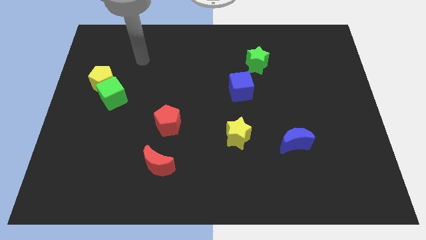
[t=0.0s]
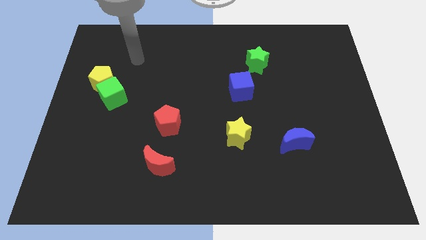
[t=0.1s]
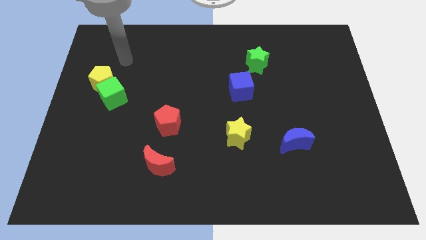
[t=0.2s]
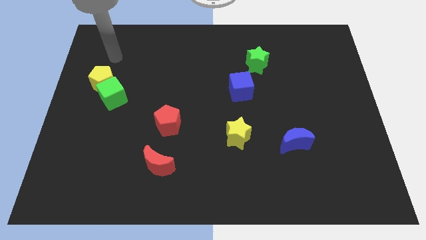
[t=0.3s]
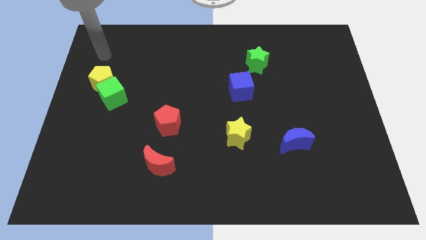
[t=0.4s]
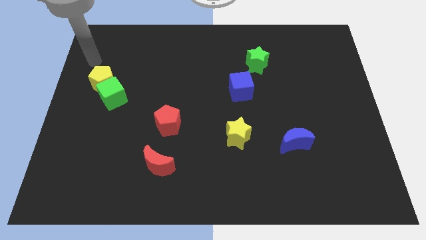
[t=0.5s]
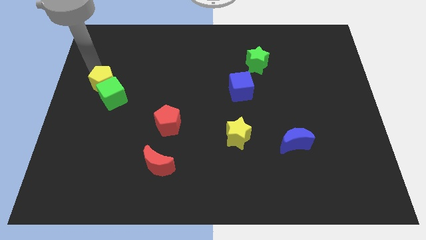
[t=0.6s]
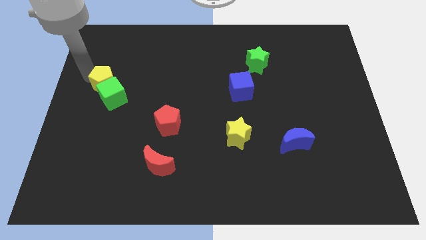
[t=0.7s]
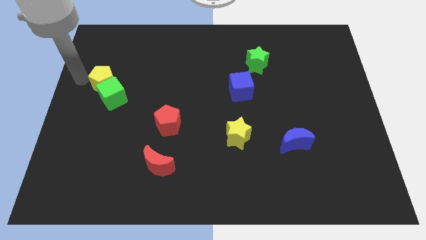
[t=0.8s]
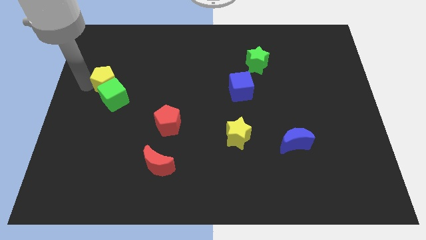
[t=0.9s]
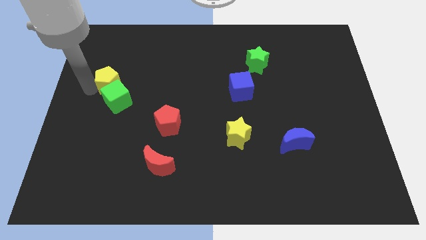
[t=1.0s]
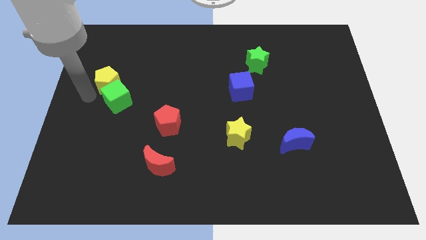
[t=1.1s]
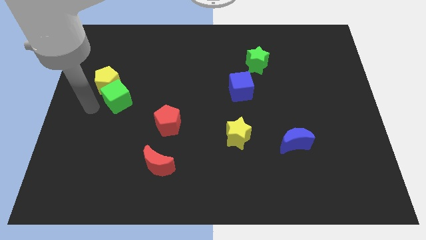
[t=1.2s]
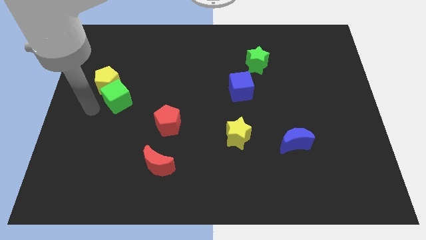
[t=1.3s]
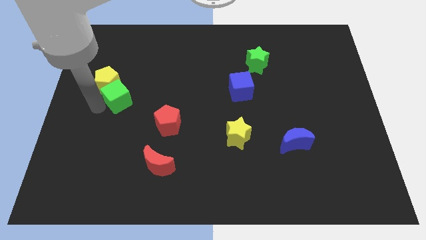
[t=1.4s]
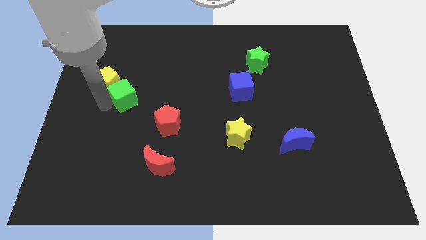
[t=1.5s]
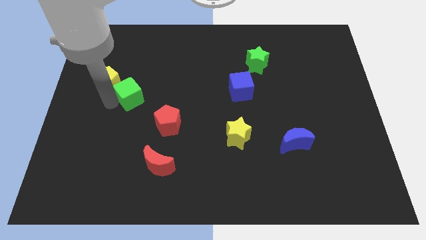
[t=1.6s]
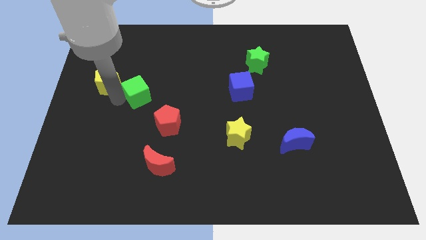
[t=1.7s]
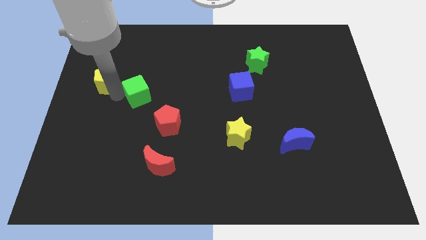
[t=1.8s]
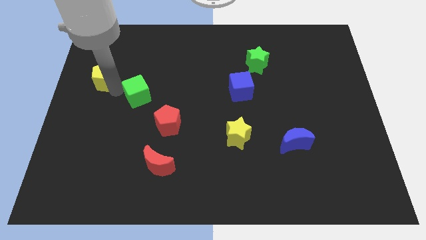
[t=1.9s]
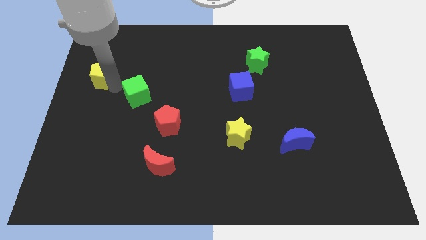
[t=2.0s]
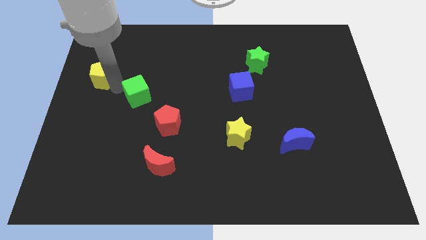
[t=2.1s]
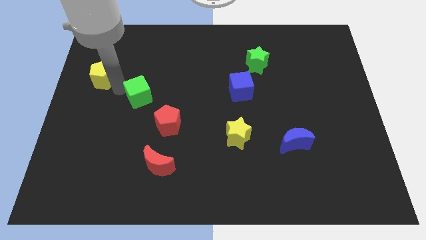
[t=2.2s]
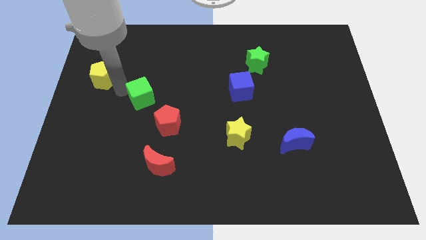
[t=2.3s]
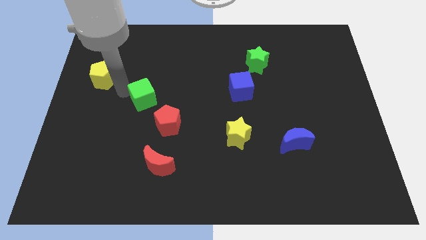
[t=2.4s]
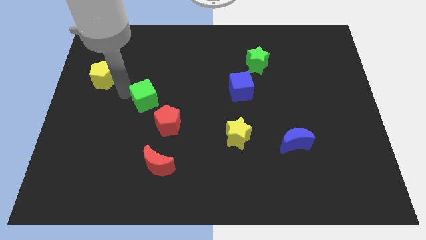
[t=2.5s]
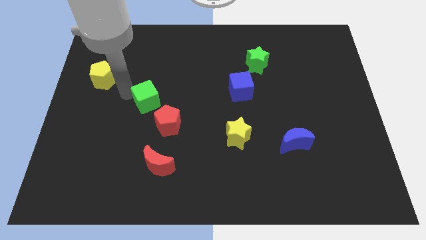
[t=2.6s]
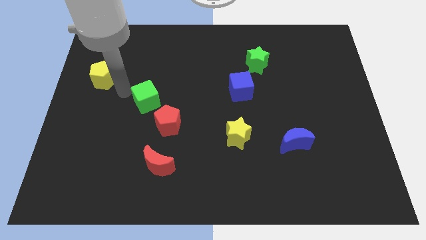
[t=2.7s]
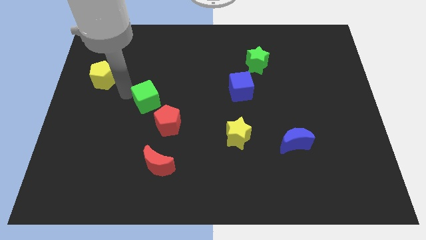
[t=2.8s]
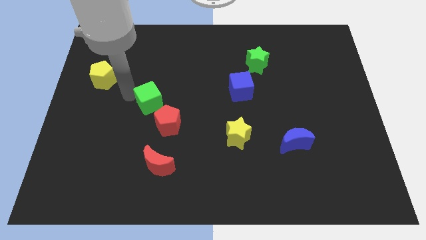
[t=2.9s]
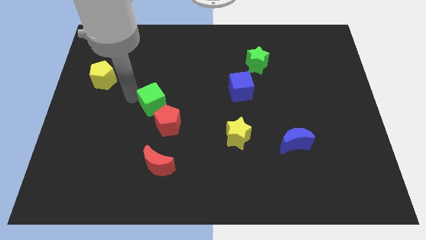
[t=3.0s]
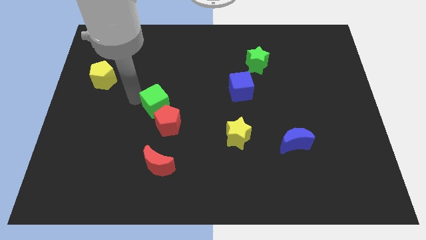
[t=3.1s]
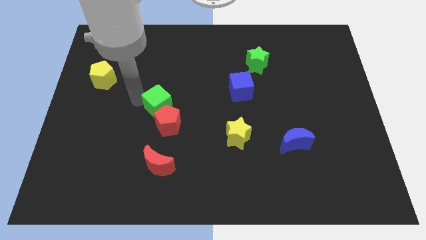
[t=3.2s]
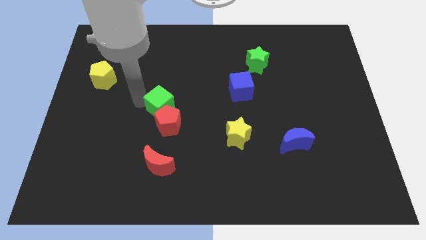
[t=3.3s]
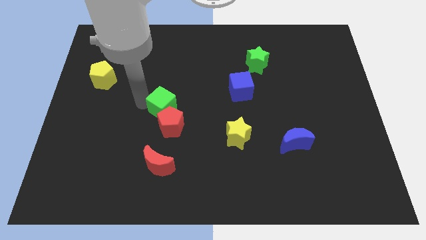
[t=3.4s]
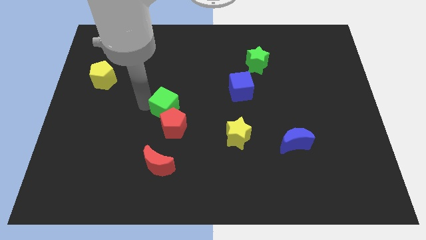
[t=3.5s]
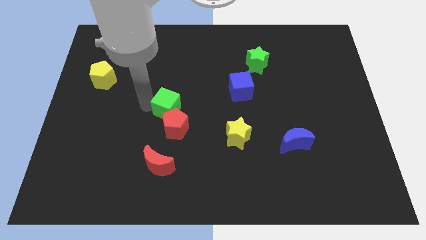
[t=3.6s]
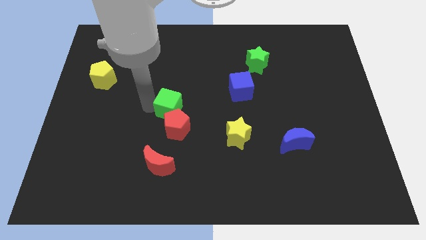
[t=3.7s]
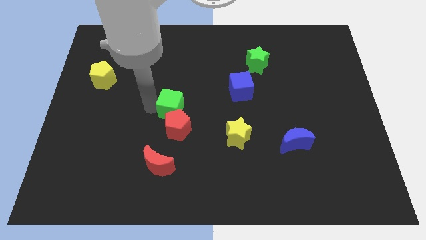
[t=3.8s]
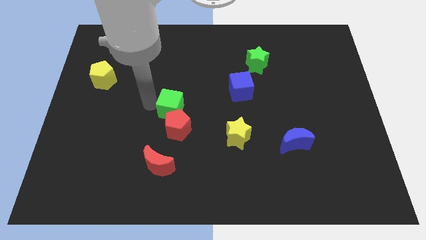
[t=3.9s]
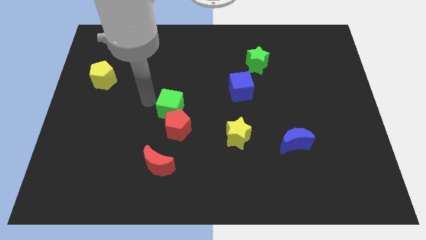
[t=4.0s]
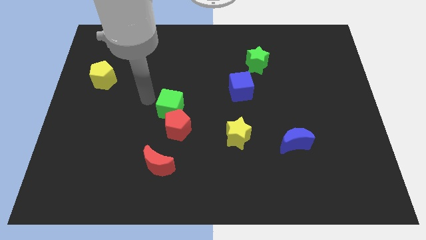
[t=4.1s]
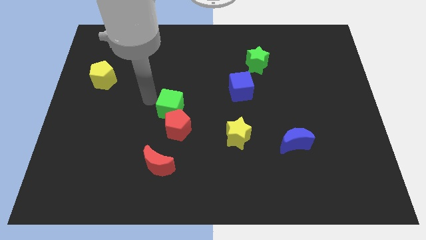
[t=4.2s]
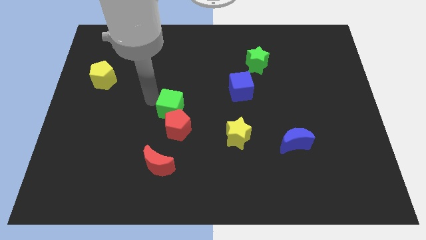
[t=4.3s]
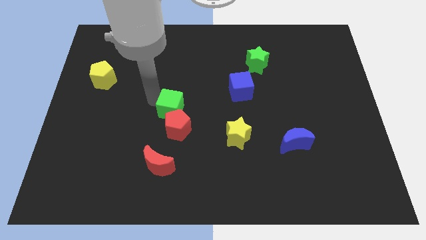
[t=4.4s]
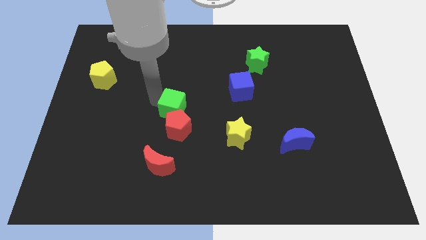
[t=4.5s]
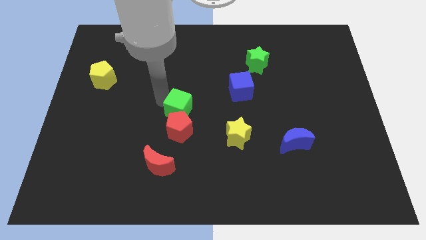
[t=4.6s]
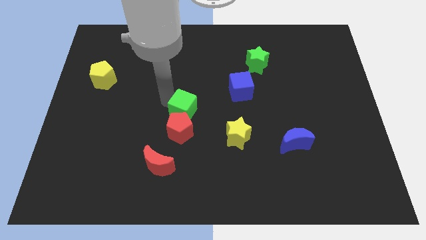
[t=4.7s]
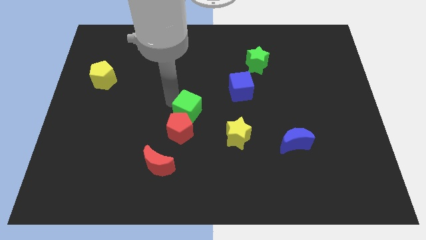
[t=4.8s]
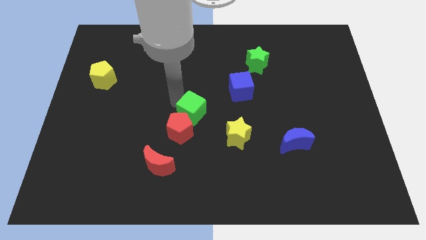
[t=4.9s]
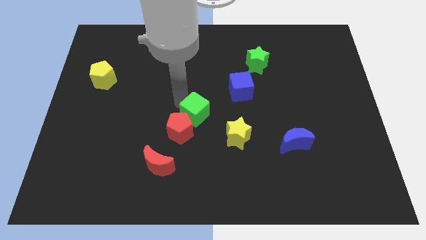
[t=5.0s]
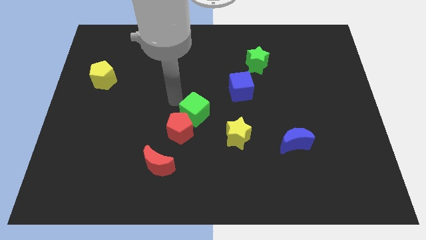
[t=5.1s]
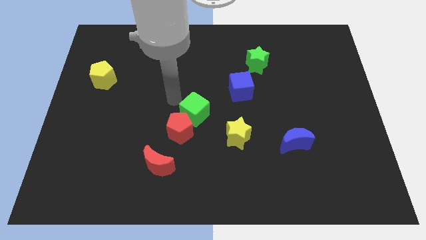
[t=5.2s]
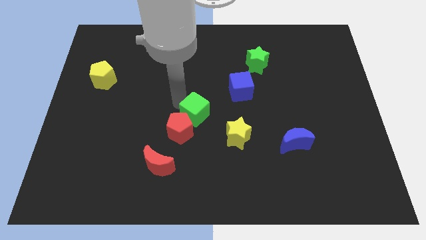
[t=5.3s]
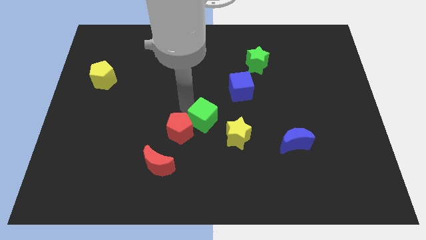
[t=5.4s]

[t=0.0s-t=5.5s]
move the green cube to the right of the red pentagon
